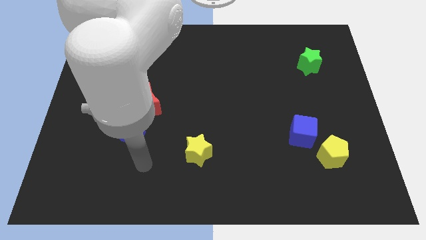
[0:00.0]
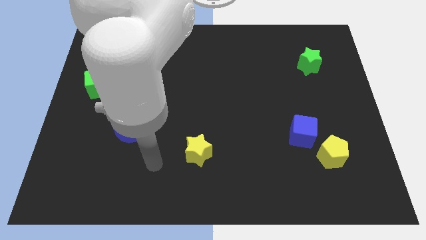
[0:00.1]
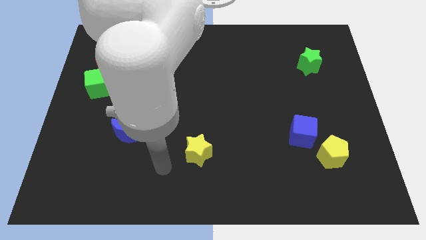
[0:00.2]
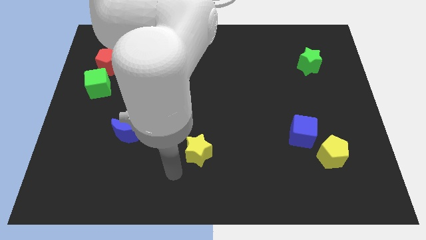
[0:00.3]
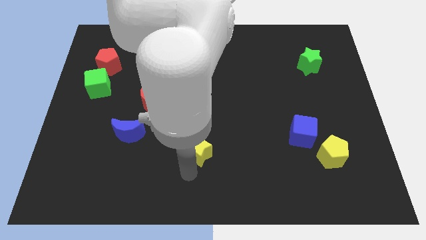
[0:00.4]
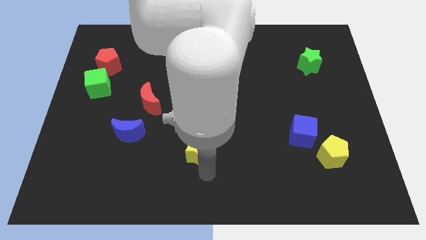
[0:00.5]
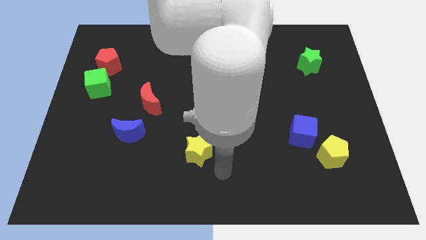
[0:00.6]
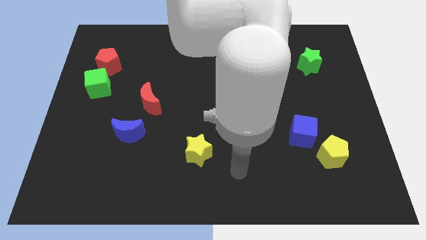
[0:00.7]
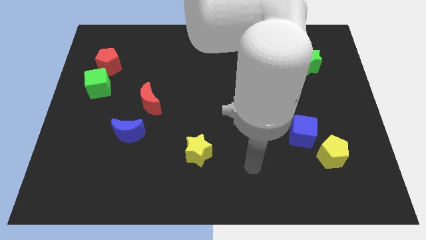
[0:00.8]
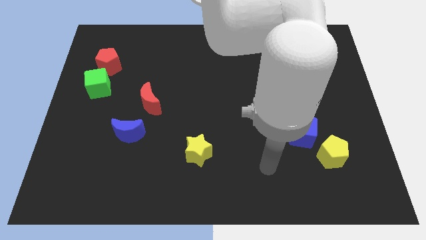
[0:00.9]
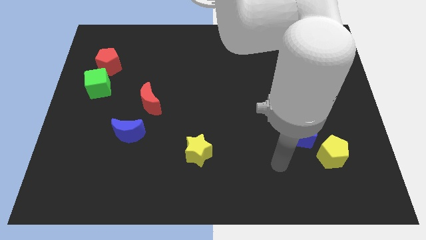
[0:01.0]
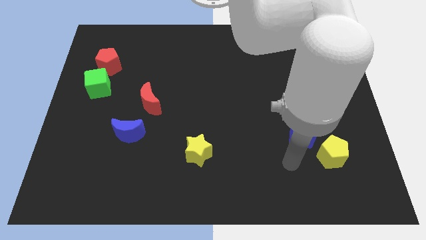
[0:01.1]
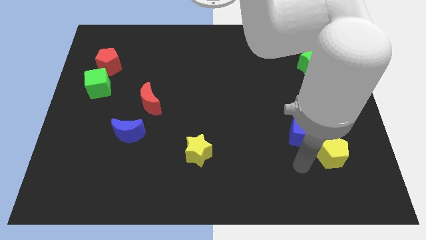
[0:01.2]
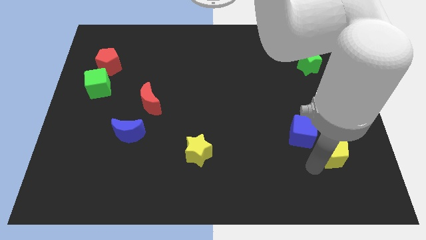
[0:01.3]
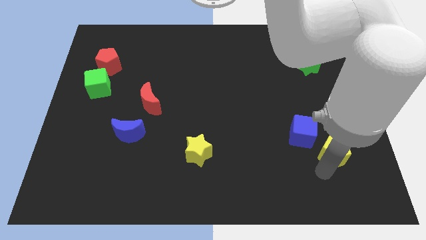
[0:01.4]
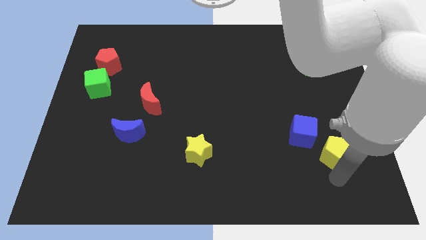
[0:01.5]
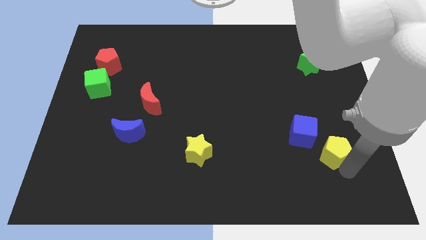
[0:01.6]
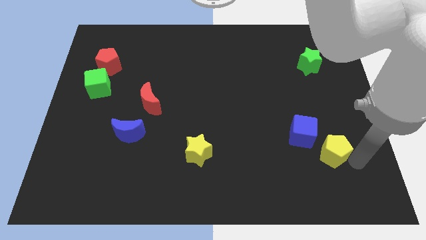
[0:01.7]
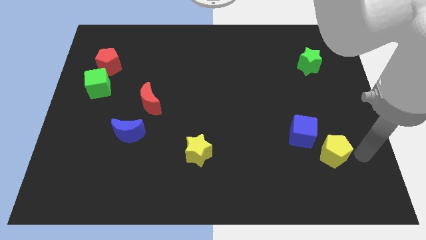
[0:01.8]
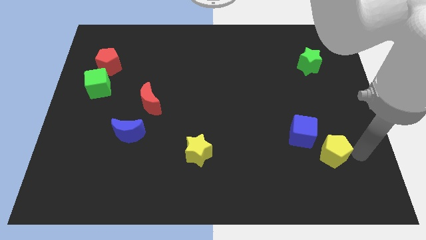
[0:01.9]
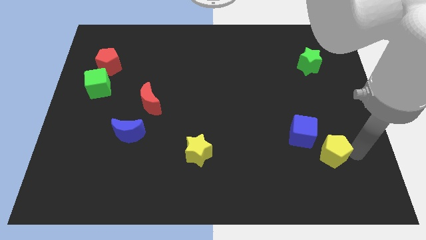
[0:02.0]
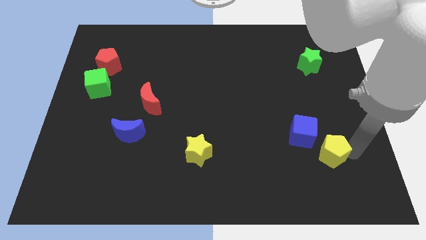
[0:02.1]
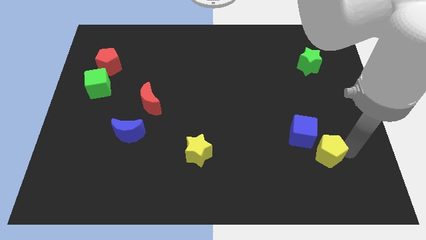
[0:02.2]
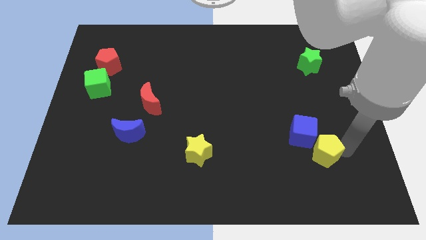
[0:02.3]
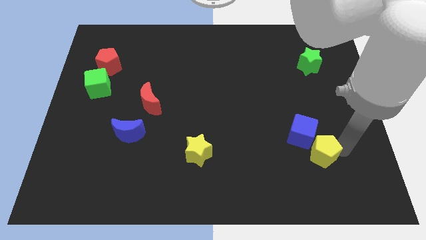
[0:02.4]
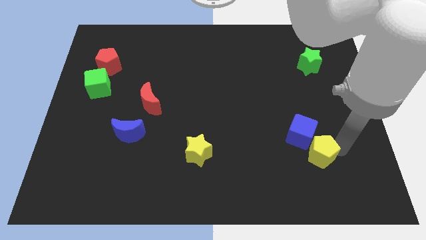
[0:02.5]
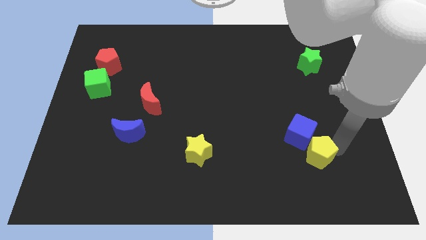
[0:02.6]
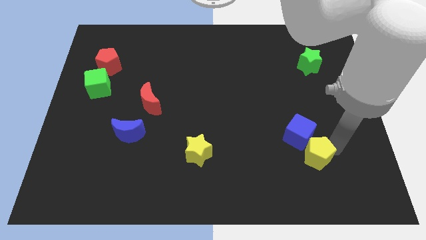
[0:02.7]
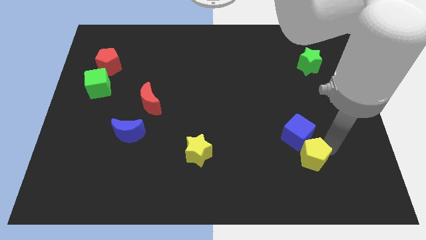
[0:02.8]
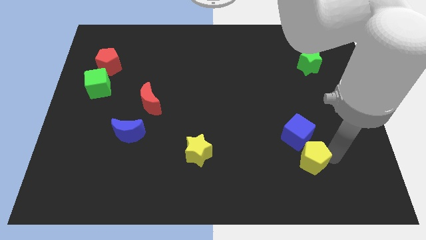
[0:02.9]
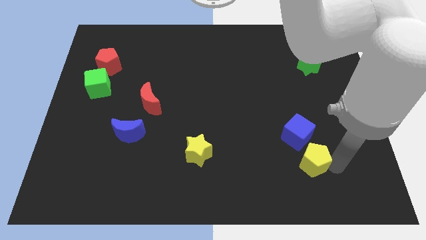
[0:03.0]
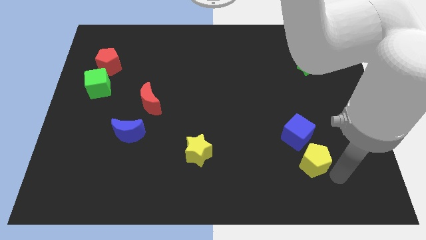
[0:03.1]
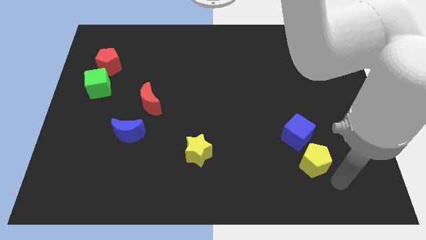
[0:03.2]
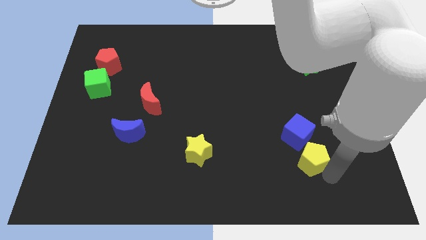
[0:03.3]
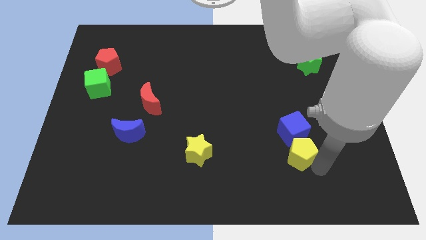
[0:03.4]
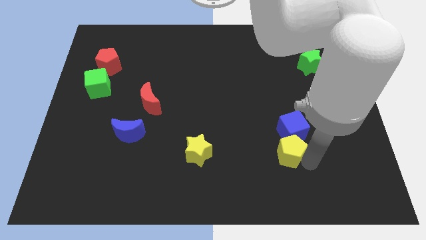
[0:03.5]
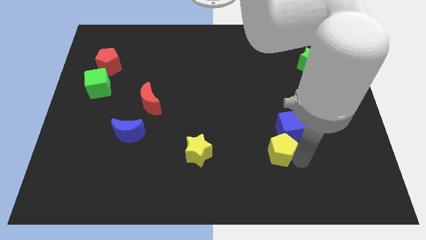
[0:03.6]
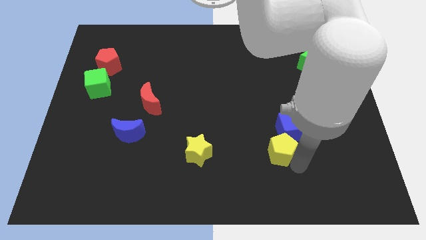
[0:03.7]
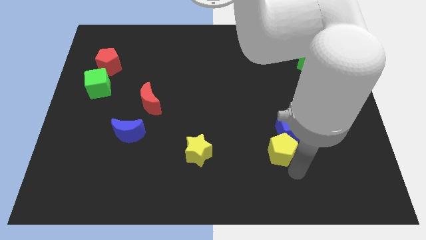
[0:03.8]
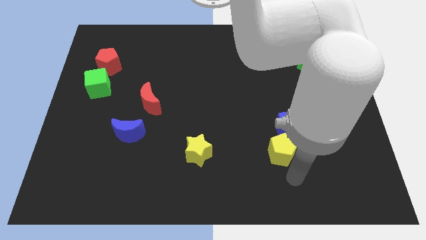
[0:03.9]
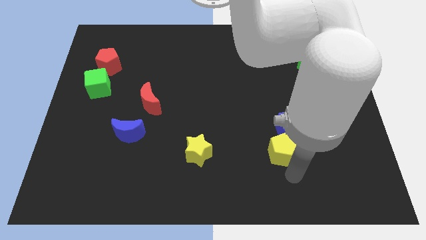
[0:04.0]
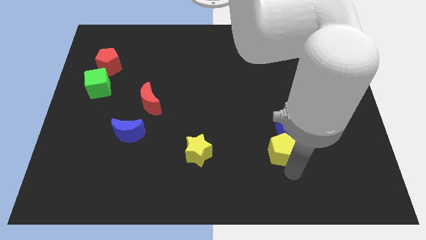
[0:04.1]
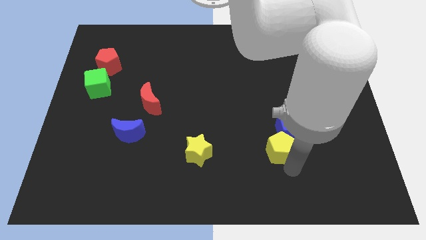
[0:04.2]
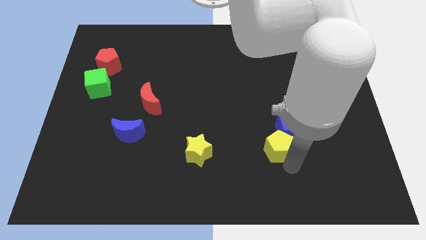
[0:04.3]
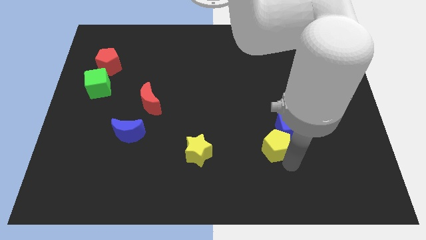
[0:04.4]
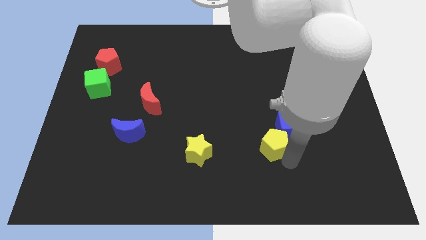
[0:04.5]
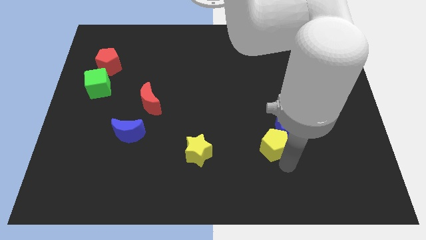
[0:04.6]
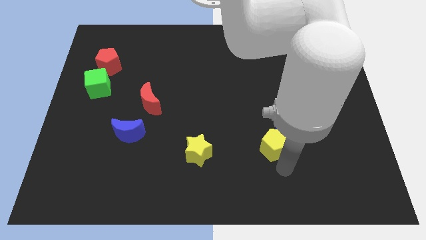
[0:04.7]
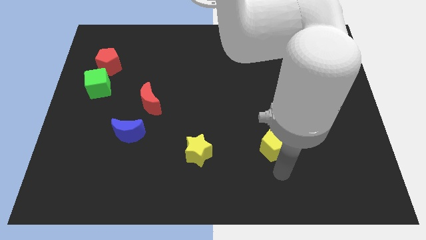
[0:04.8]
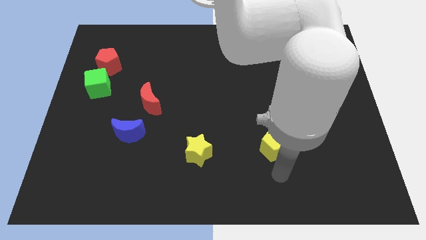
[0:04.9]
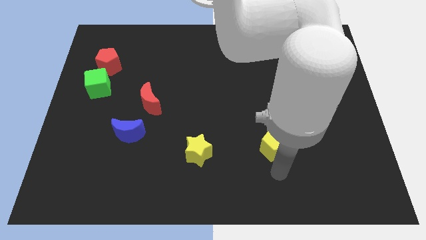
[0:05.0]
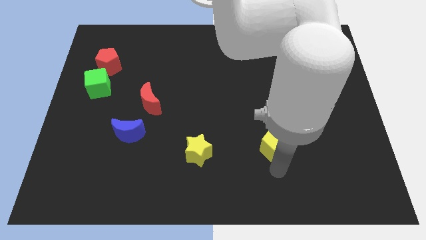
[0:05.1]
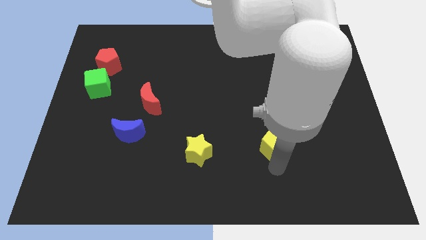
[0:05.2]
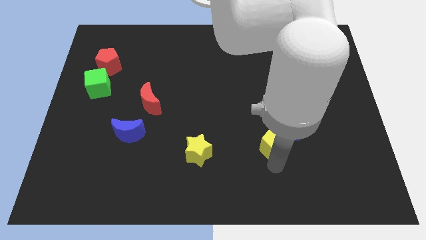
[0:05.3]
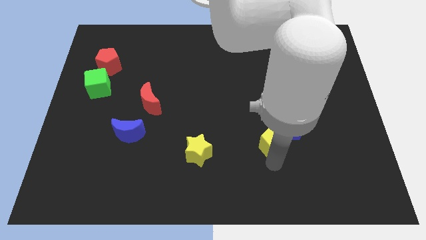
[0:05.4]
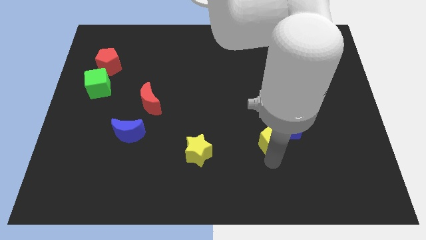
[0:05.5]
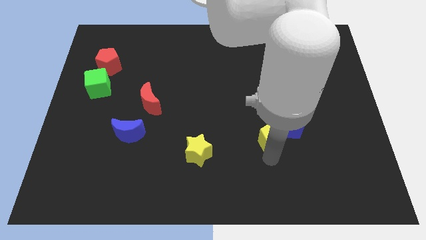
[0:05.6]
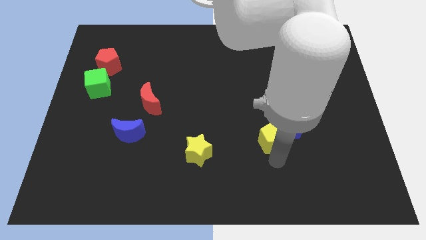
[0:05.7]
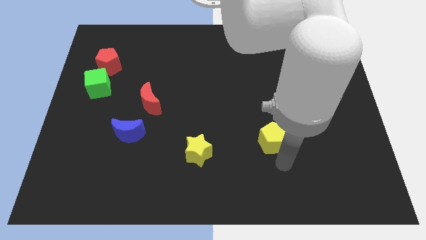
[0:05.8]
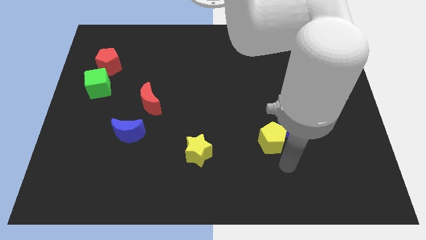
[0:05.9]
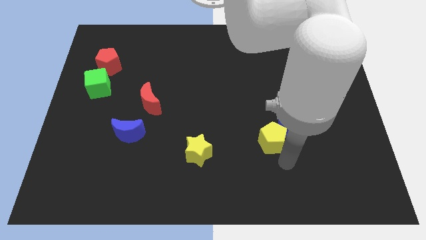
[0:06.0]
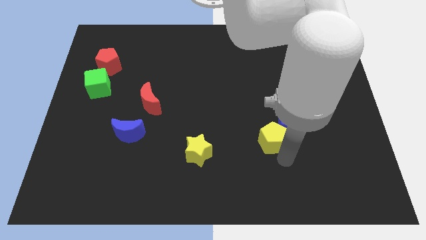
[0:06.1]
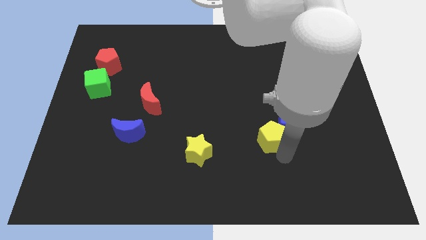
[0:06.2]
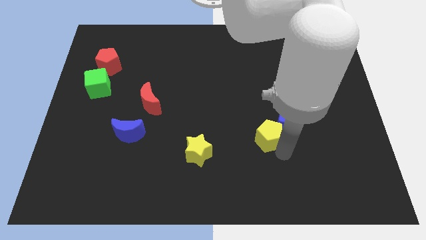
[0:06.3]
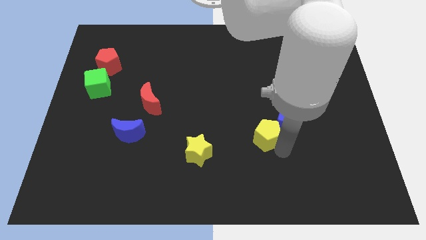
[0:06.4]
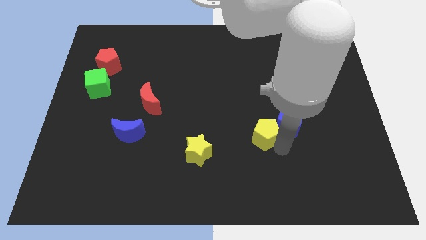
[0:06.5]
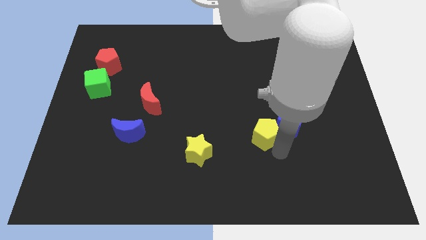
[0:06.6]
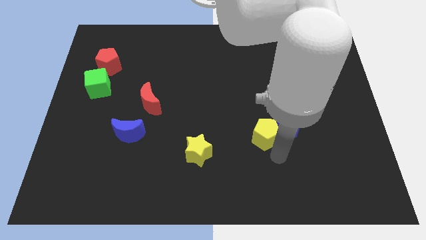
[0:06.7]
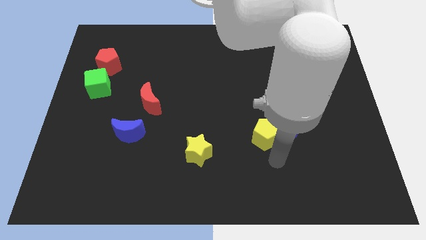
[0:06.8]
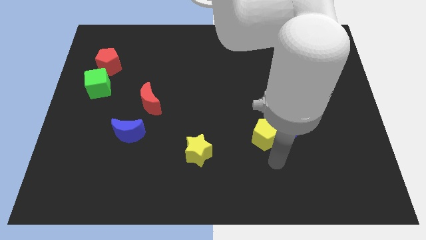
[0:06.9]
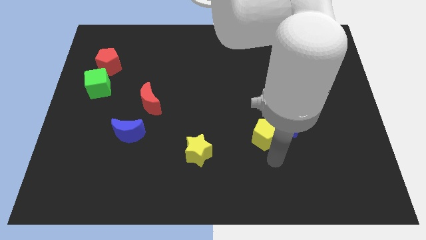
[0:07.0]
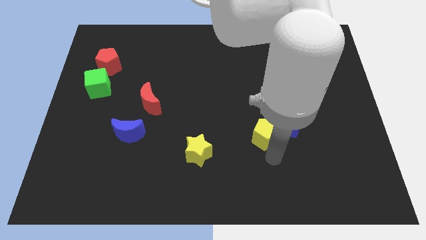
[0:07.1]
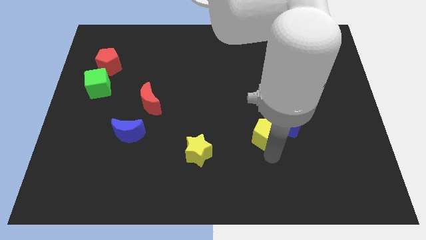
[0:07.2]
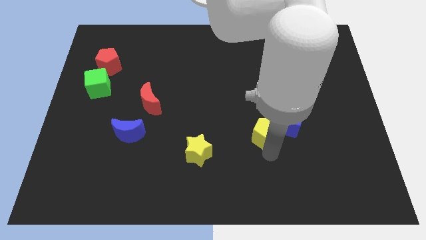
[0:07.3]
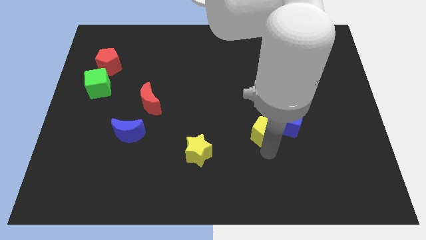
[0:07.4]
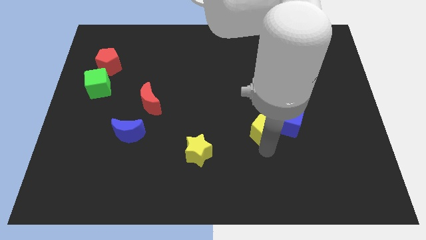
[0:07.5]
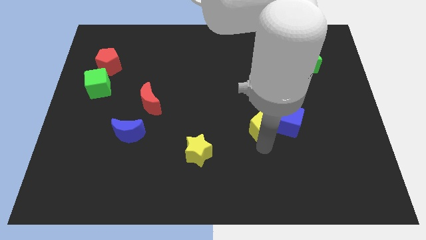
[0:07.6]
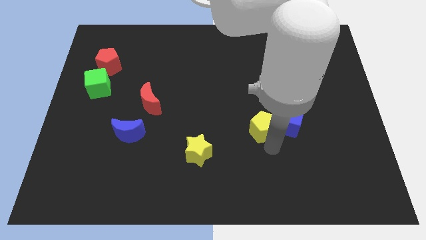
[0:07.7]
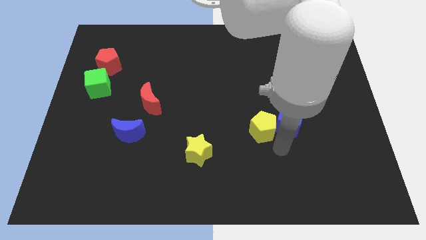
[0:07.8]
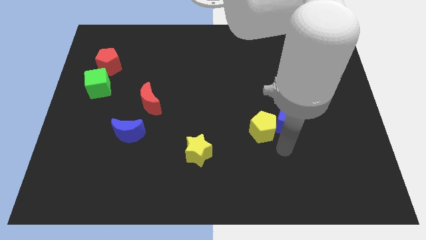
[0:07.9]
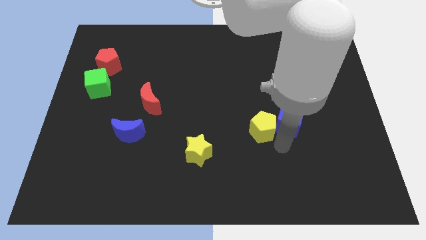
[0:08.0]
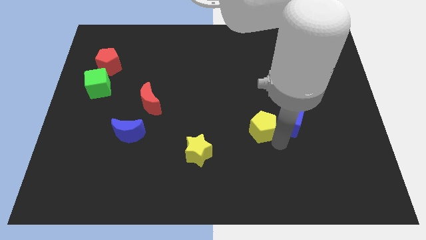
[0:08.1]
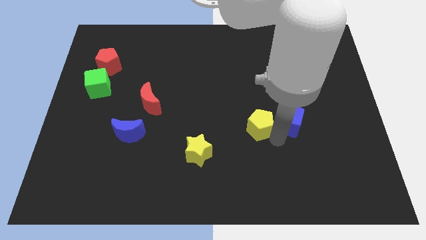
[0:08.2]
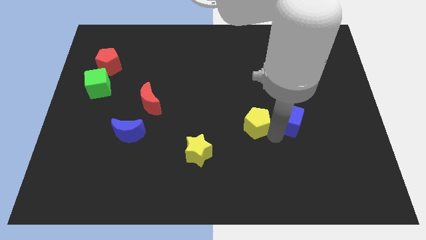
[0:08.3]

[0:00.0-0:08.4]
move the yellow pentagon to the center of the board
